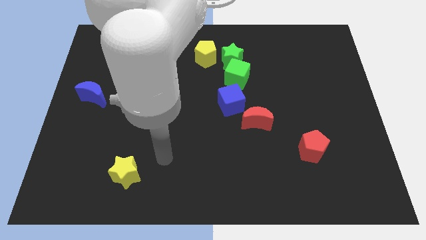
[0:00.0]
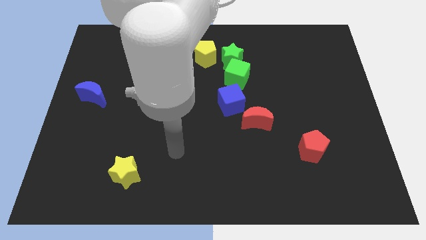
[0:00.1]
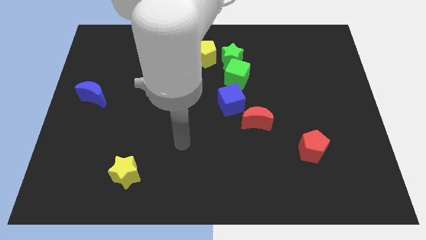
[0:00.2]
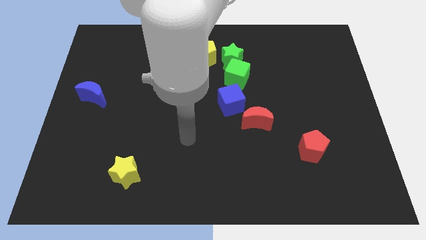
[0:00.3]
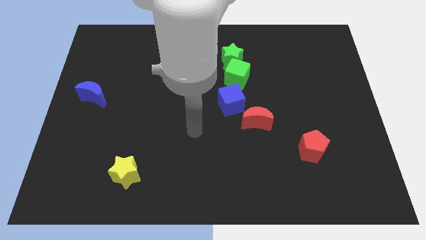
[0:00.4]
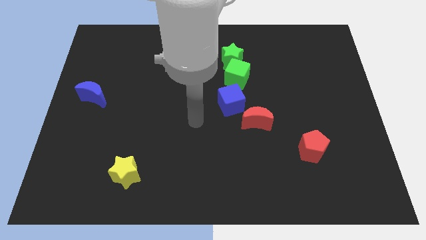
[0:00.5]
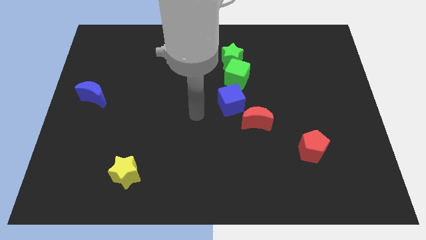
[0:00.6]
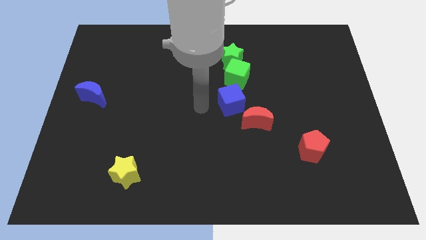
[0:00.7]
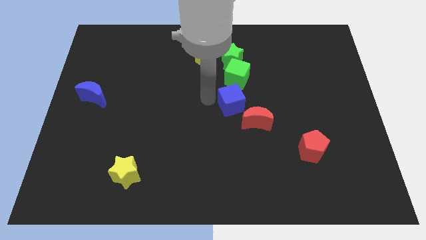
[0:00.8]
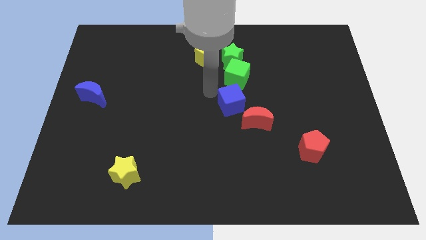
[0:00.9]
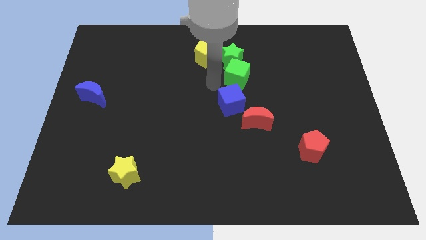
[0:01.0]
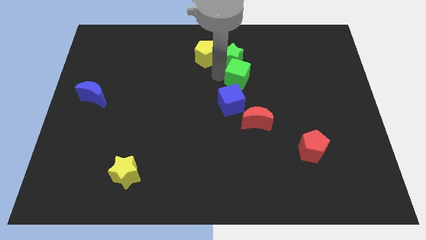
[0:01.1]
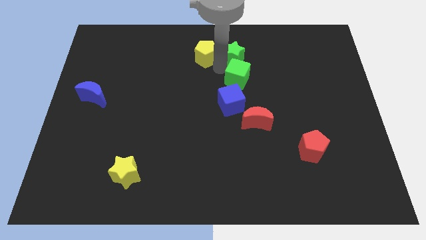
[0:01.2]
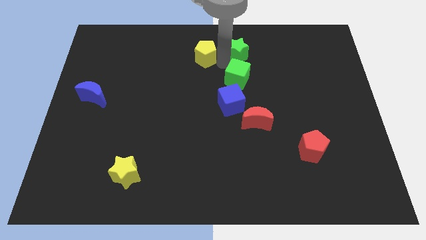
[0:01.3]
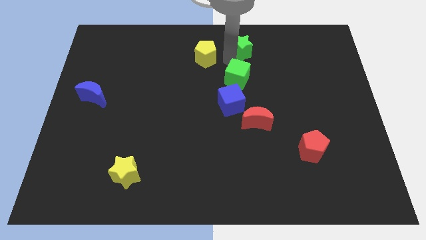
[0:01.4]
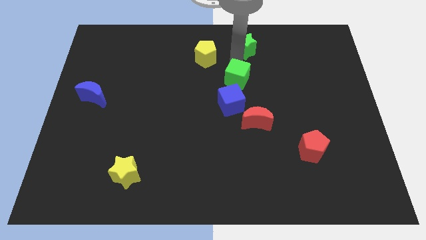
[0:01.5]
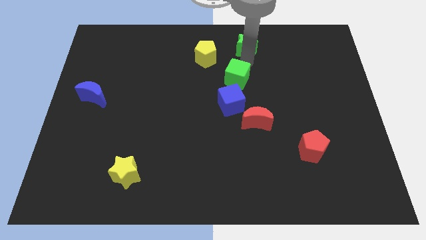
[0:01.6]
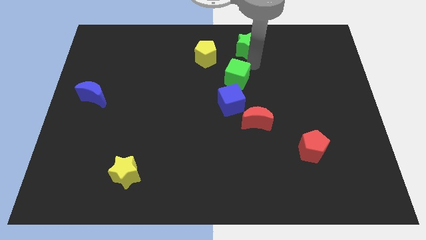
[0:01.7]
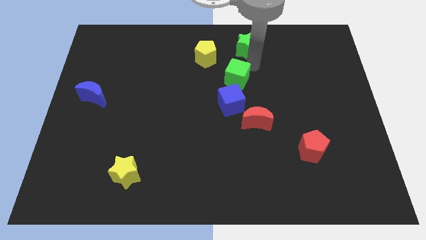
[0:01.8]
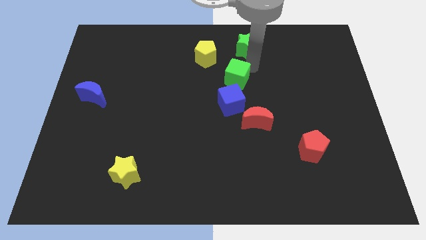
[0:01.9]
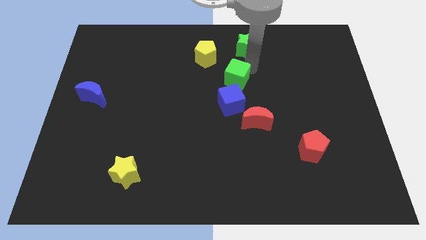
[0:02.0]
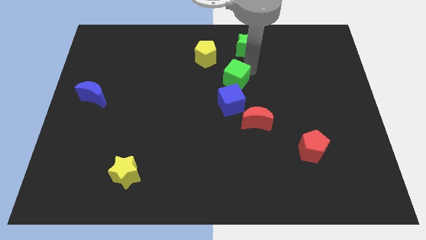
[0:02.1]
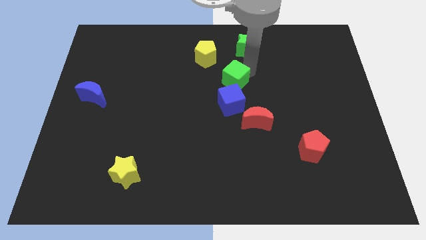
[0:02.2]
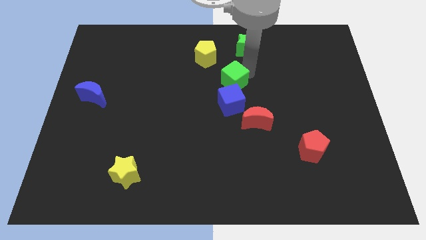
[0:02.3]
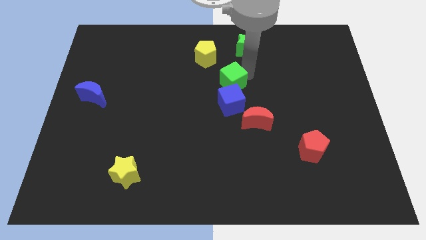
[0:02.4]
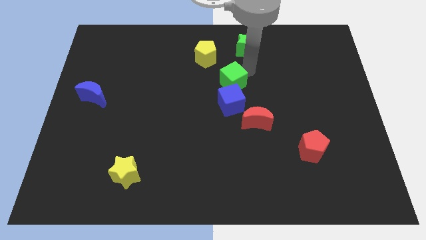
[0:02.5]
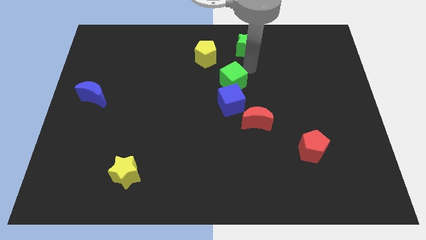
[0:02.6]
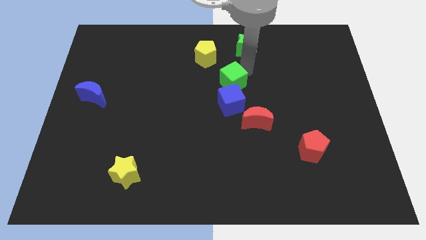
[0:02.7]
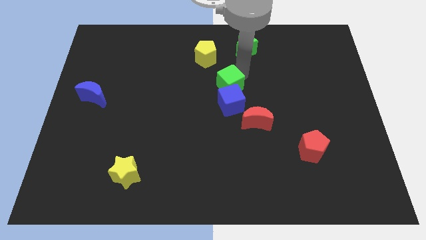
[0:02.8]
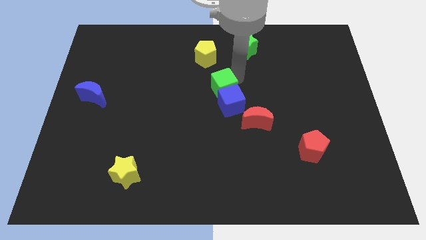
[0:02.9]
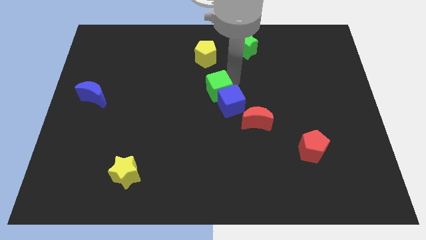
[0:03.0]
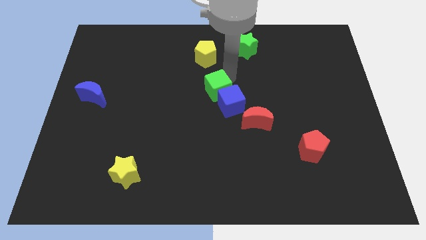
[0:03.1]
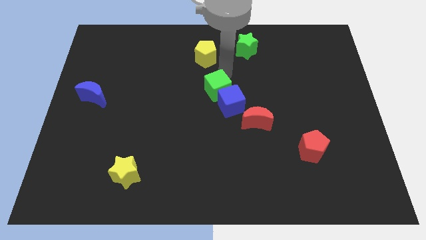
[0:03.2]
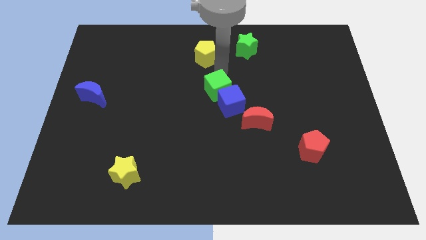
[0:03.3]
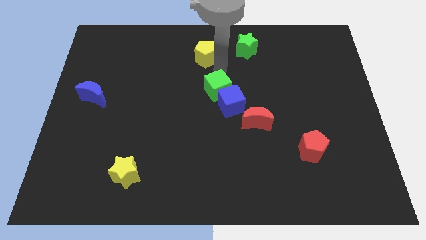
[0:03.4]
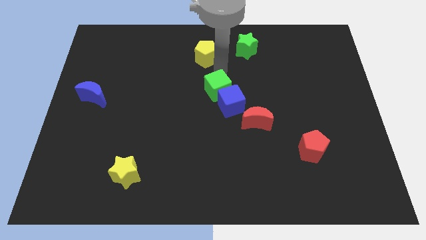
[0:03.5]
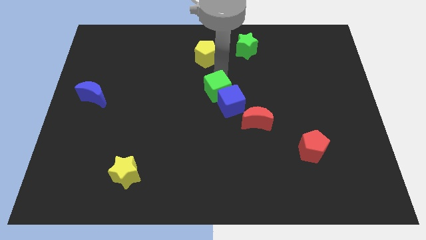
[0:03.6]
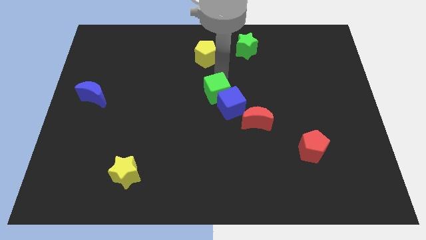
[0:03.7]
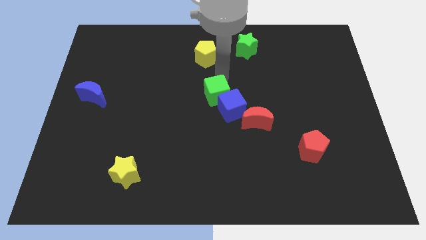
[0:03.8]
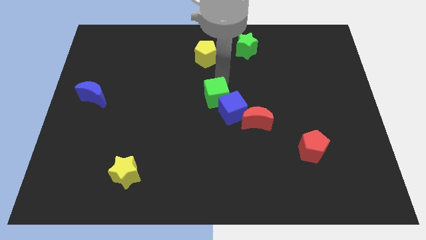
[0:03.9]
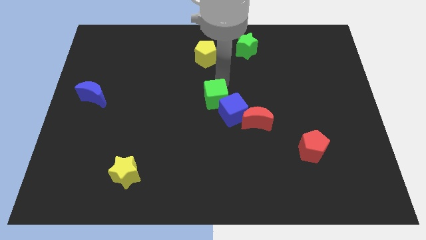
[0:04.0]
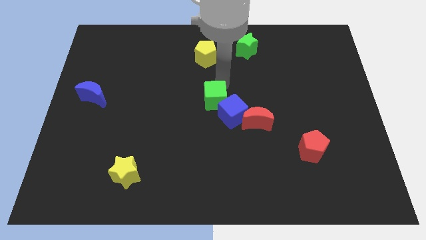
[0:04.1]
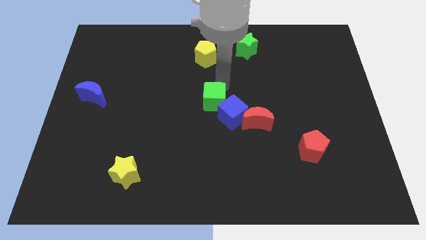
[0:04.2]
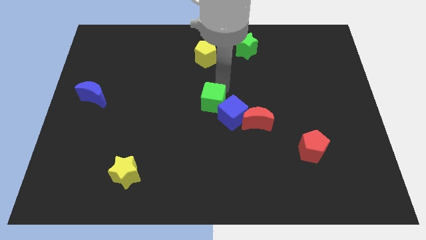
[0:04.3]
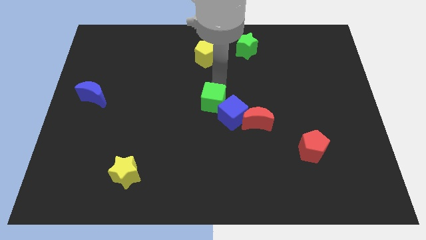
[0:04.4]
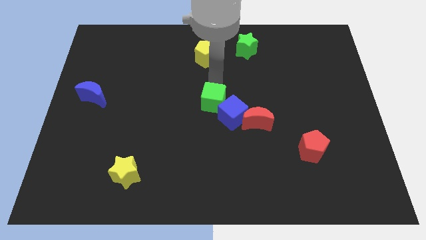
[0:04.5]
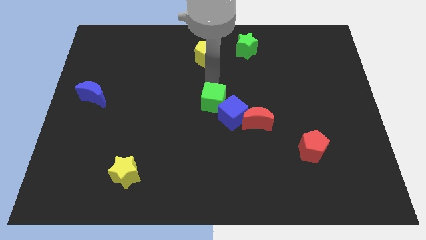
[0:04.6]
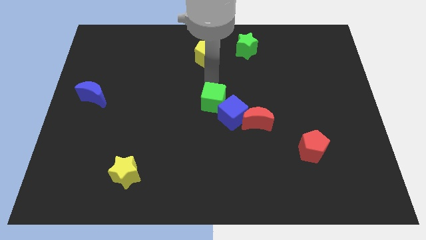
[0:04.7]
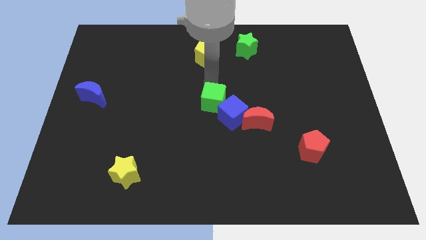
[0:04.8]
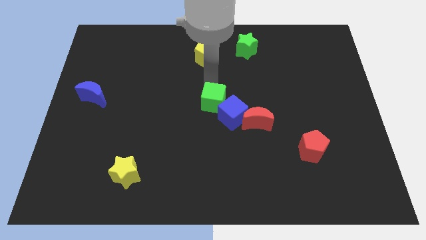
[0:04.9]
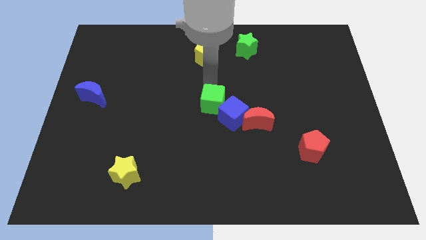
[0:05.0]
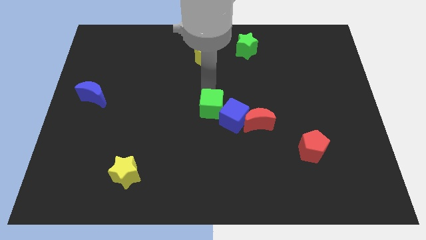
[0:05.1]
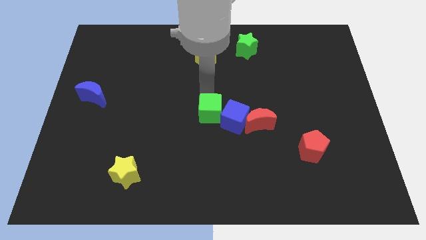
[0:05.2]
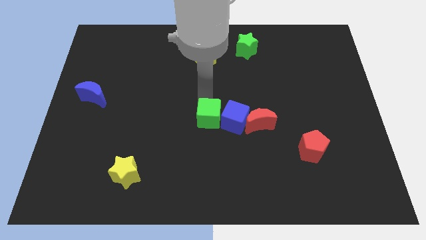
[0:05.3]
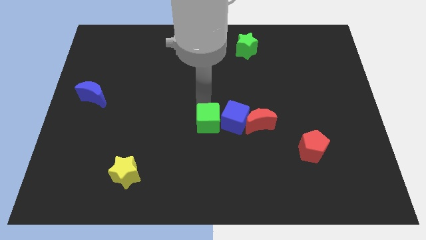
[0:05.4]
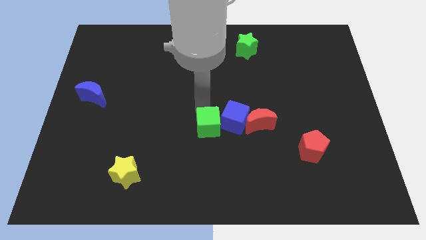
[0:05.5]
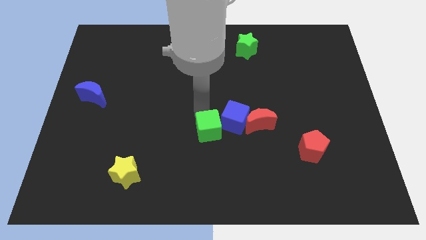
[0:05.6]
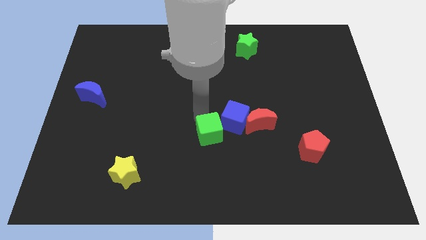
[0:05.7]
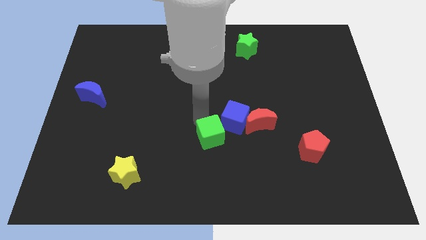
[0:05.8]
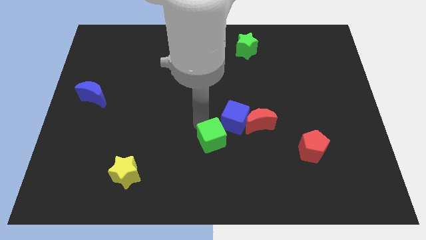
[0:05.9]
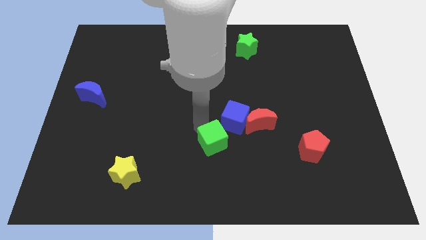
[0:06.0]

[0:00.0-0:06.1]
slide the green cube to the bottom of the blue cube

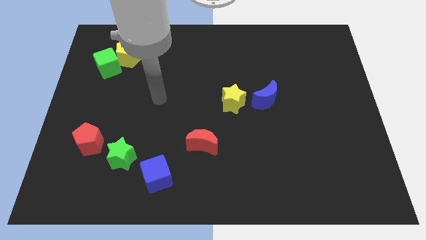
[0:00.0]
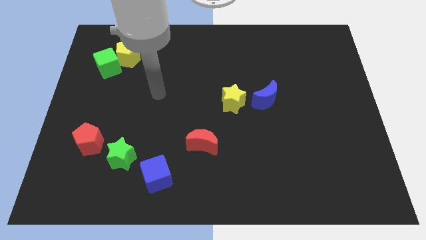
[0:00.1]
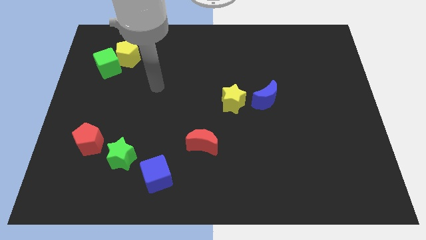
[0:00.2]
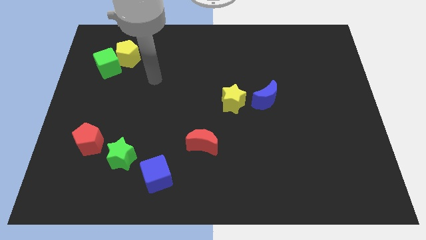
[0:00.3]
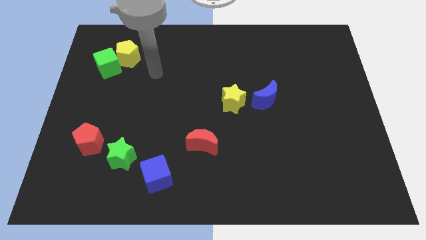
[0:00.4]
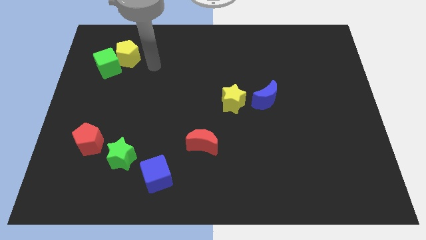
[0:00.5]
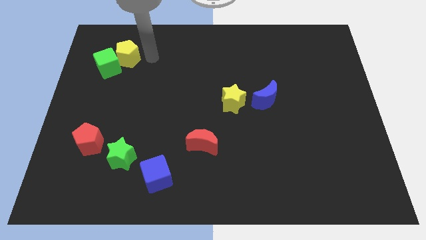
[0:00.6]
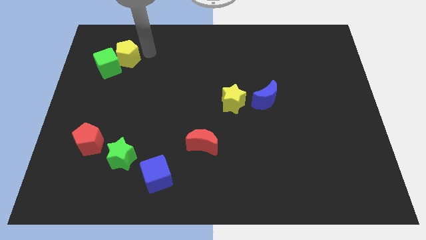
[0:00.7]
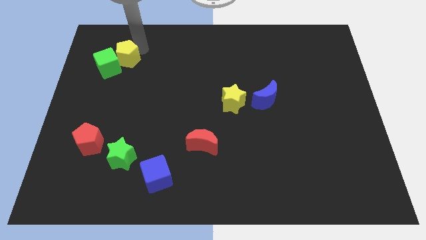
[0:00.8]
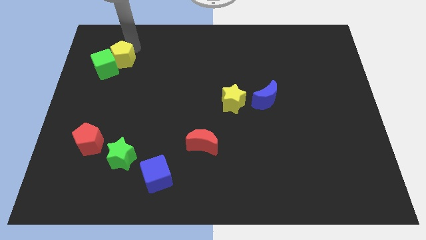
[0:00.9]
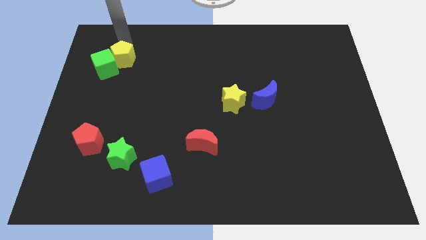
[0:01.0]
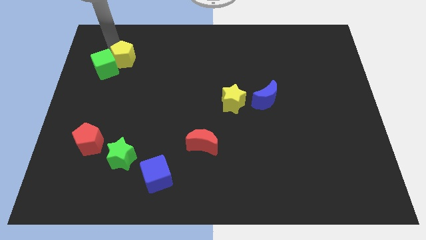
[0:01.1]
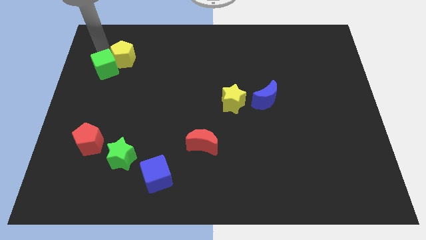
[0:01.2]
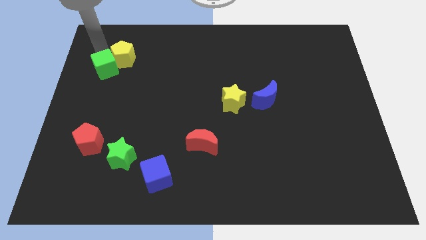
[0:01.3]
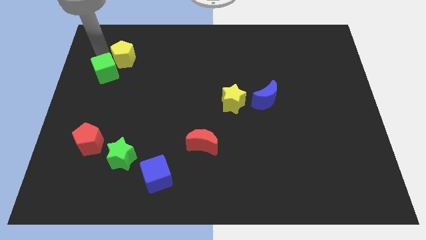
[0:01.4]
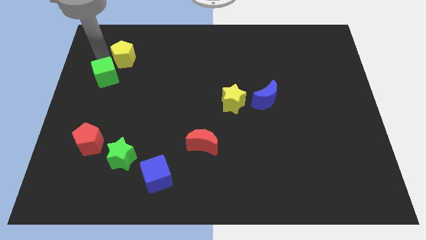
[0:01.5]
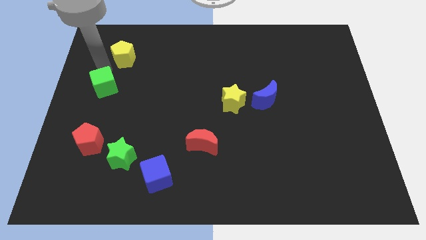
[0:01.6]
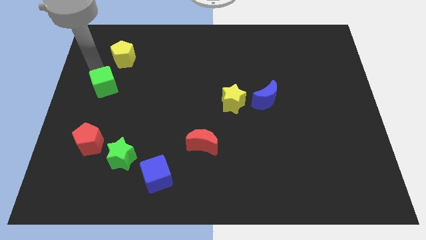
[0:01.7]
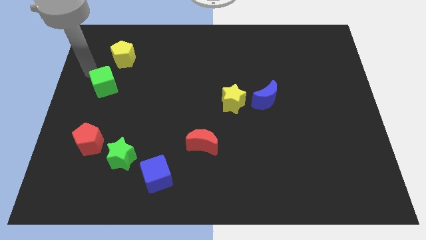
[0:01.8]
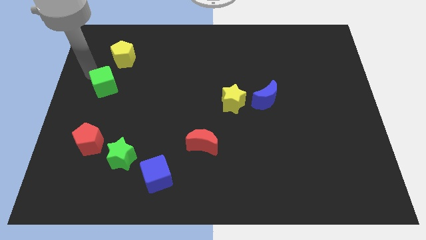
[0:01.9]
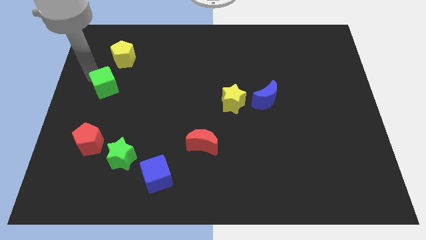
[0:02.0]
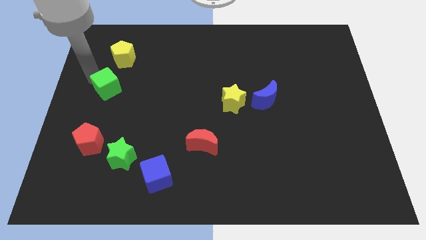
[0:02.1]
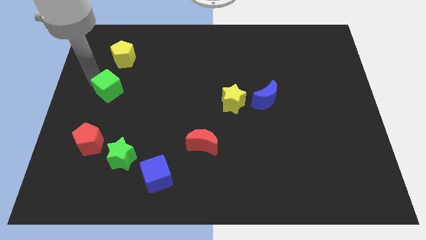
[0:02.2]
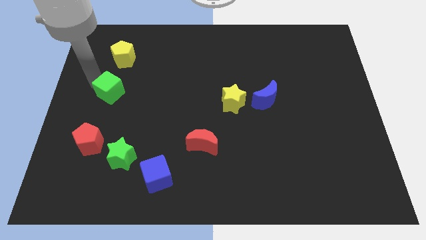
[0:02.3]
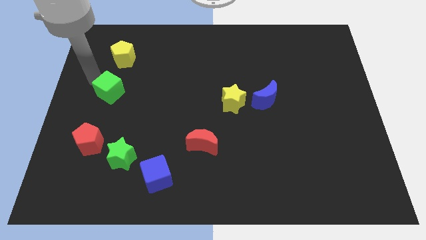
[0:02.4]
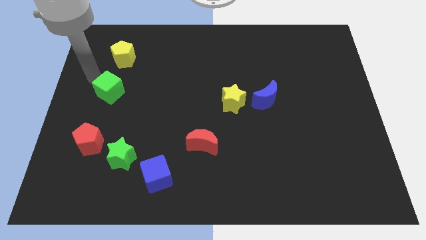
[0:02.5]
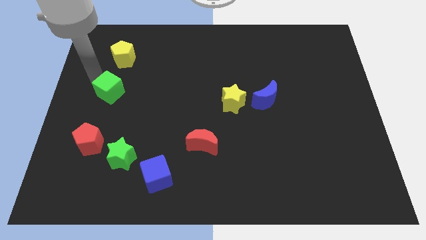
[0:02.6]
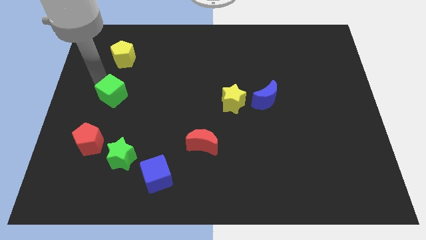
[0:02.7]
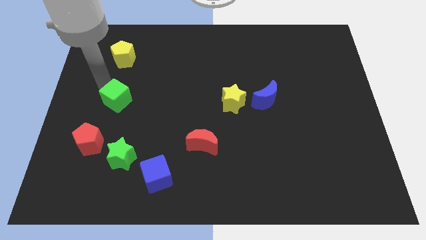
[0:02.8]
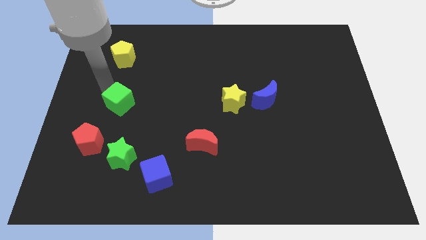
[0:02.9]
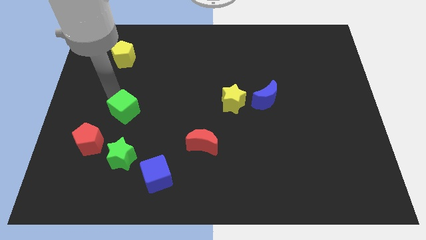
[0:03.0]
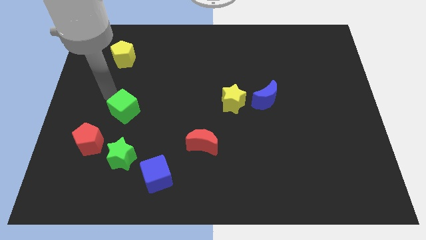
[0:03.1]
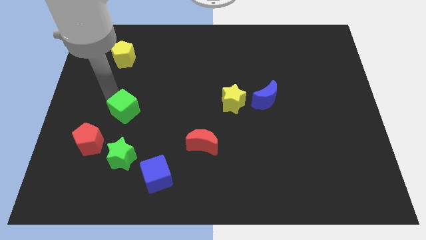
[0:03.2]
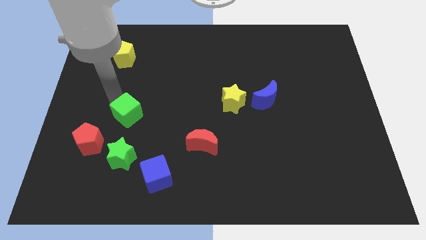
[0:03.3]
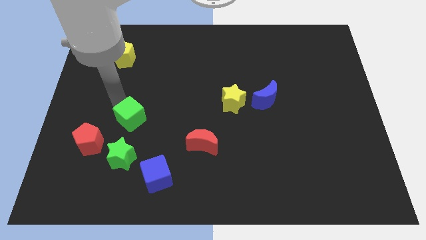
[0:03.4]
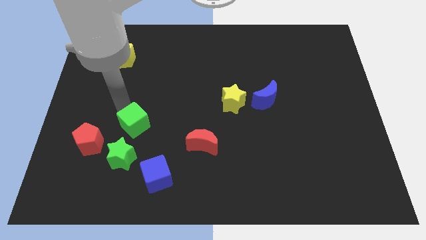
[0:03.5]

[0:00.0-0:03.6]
slide the green cube diagonally up and to the right of the green star
